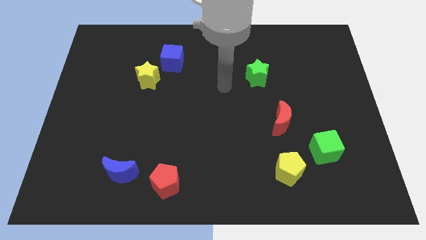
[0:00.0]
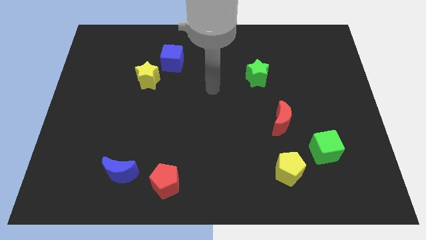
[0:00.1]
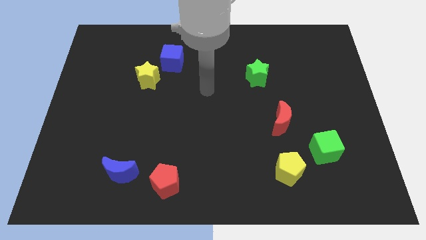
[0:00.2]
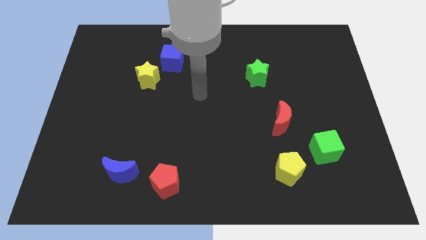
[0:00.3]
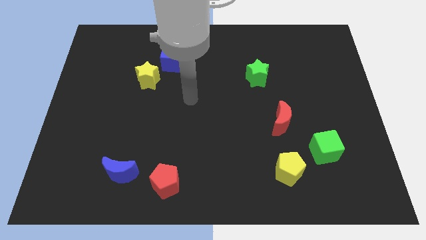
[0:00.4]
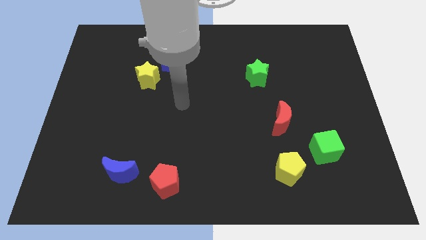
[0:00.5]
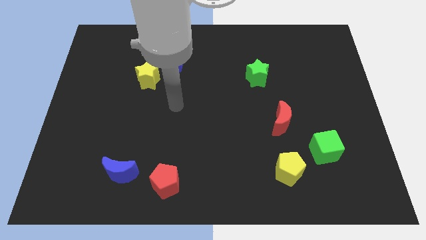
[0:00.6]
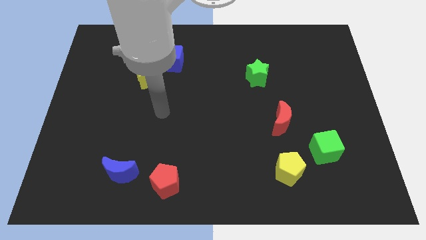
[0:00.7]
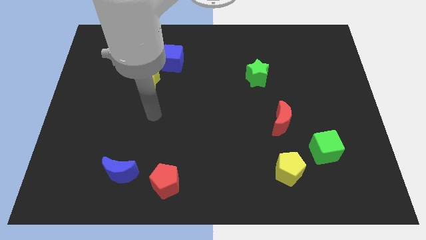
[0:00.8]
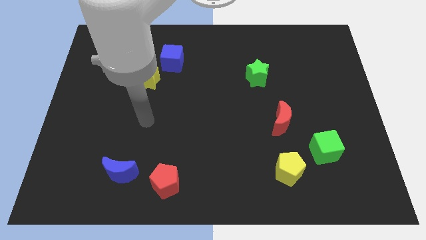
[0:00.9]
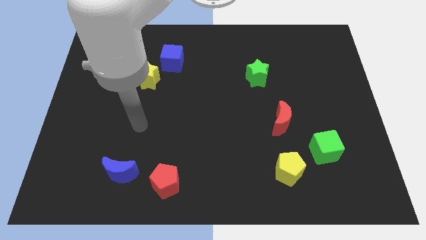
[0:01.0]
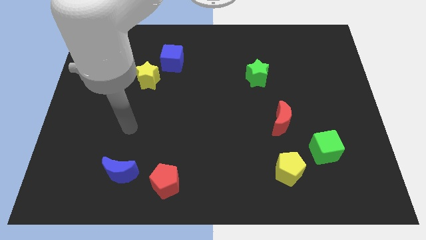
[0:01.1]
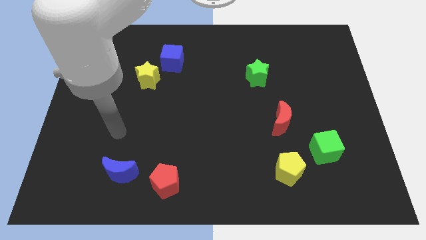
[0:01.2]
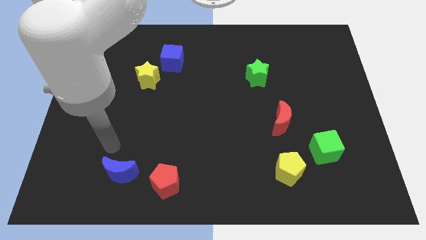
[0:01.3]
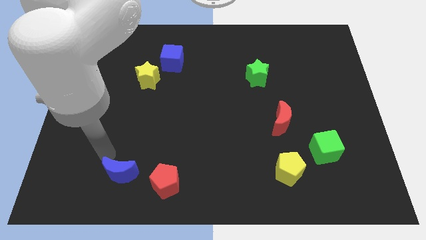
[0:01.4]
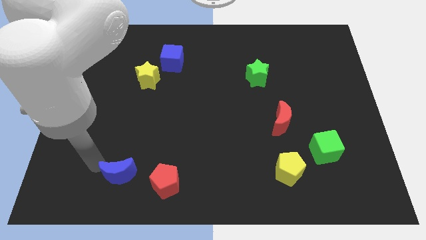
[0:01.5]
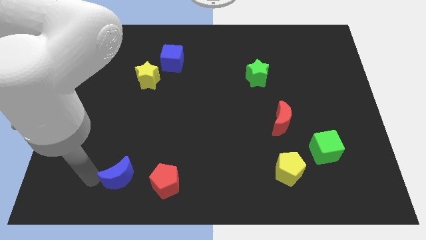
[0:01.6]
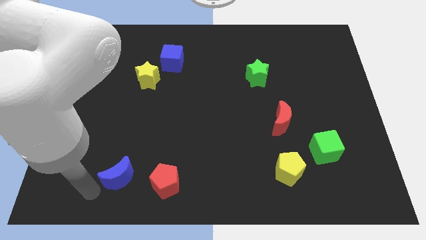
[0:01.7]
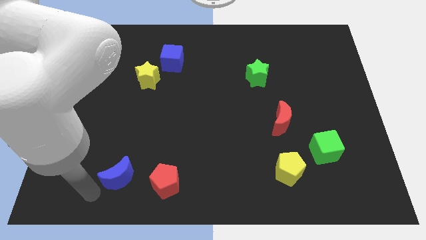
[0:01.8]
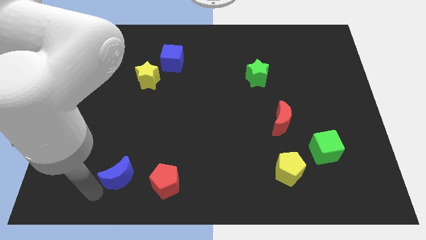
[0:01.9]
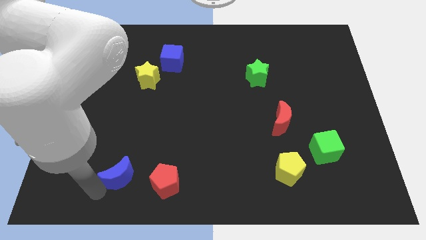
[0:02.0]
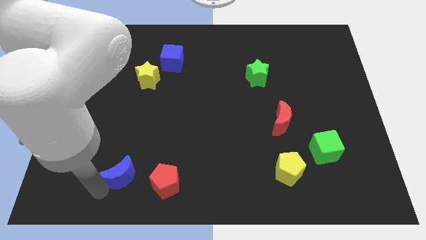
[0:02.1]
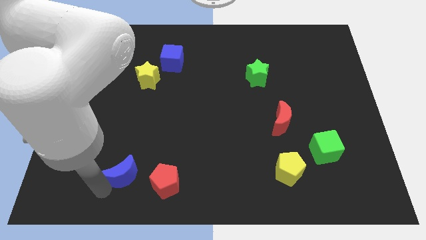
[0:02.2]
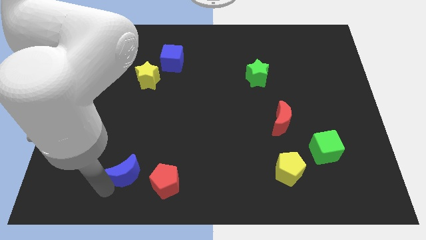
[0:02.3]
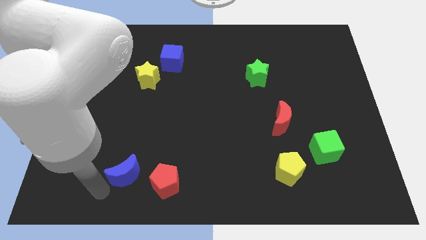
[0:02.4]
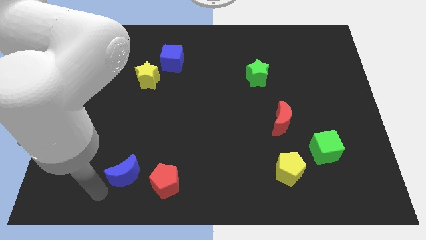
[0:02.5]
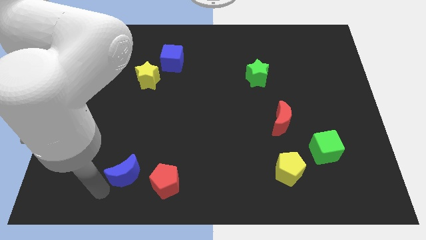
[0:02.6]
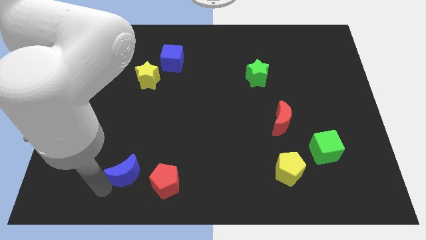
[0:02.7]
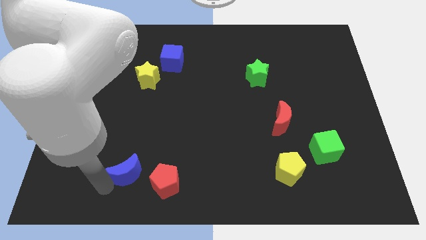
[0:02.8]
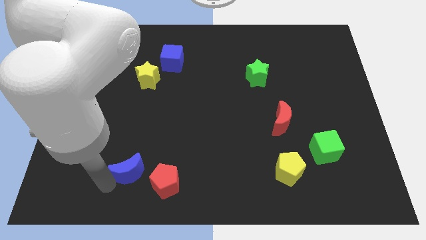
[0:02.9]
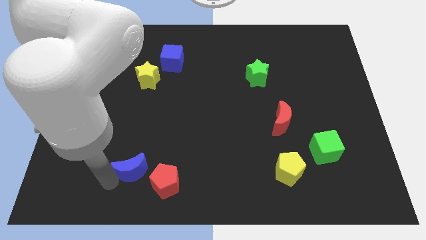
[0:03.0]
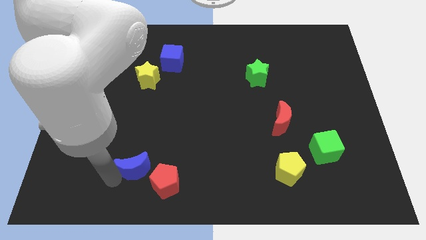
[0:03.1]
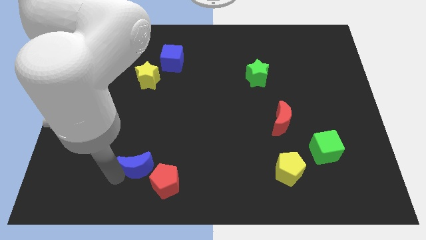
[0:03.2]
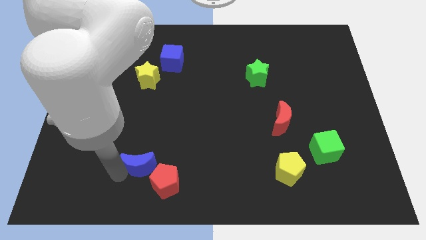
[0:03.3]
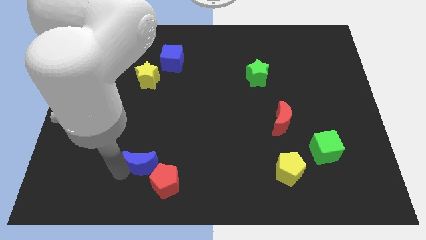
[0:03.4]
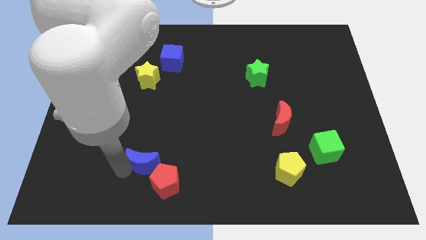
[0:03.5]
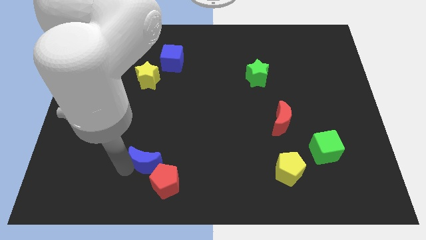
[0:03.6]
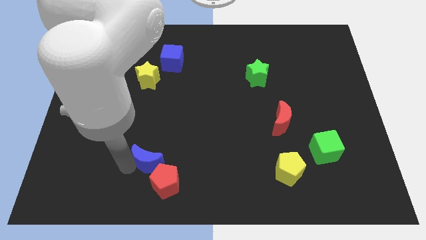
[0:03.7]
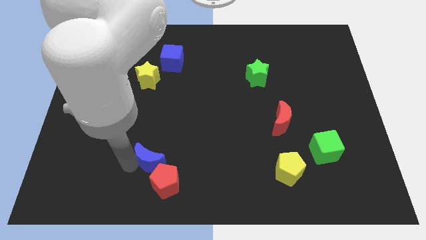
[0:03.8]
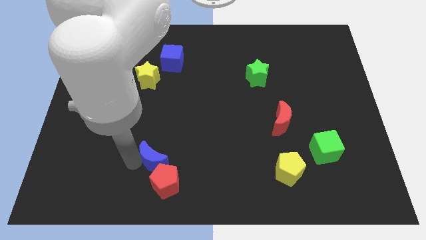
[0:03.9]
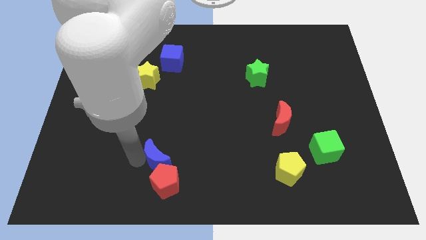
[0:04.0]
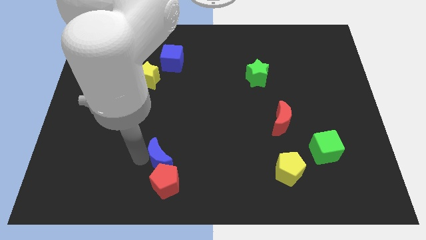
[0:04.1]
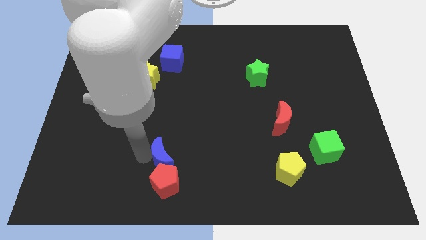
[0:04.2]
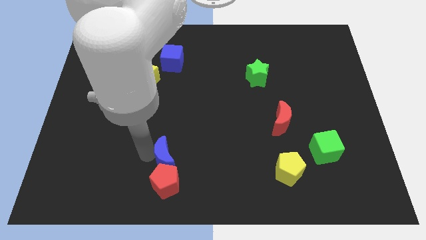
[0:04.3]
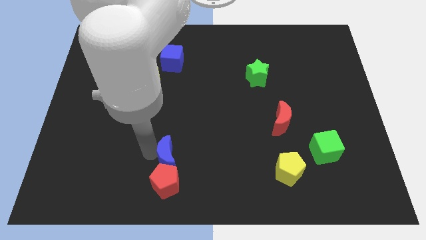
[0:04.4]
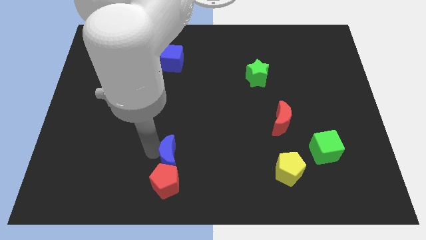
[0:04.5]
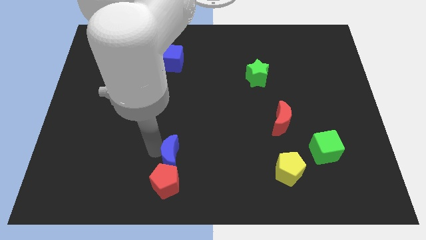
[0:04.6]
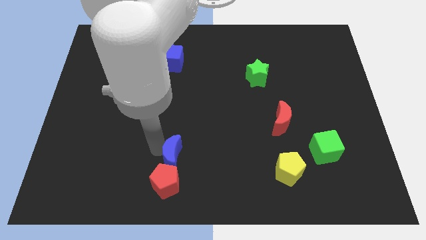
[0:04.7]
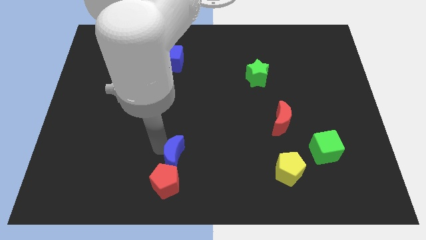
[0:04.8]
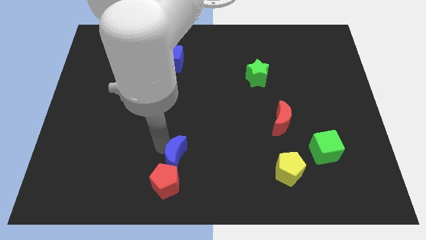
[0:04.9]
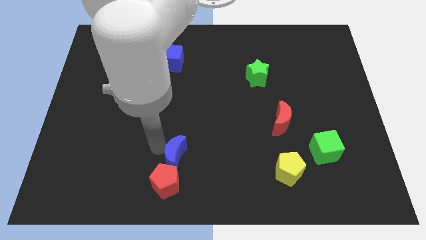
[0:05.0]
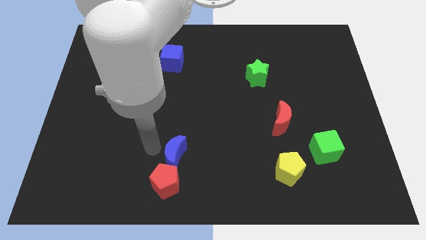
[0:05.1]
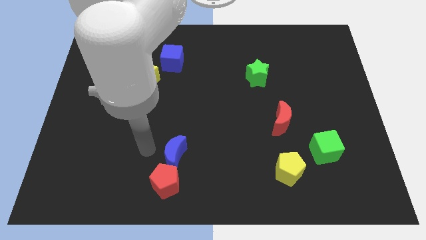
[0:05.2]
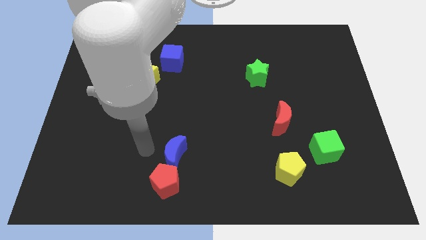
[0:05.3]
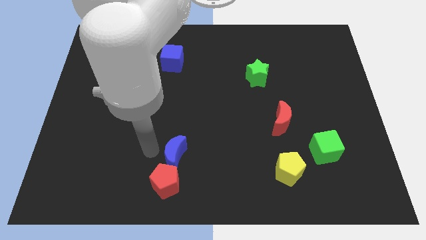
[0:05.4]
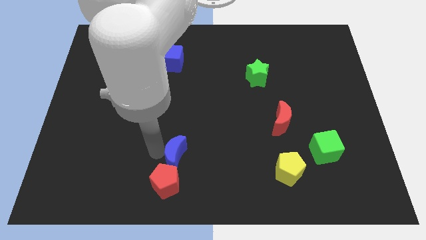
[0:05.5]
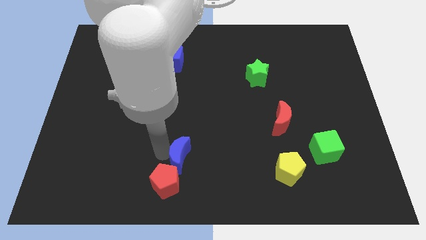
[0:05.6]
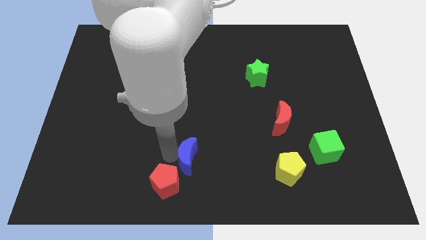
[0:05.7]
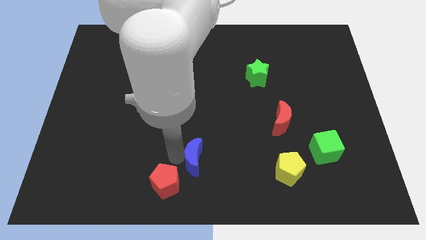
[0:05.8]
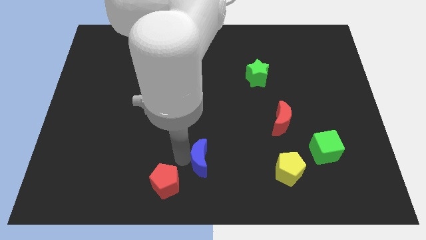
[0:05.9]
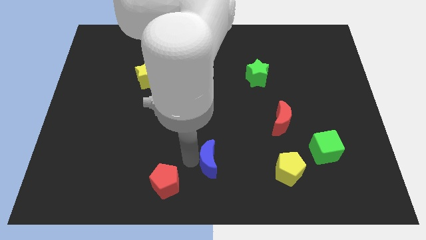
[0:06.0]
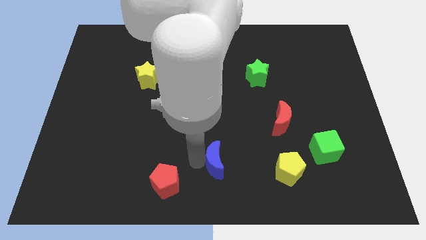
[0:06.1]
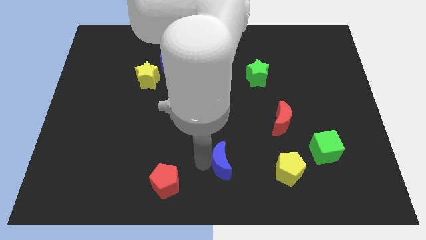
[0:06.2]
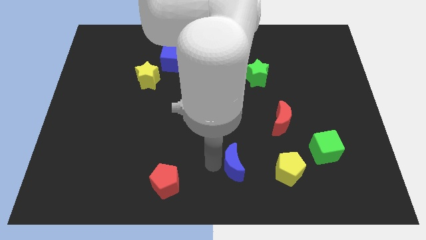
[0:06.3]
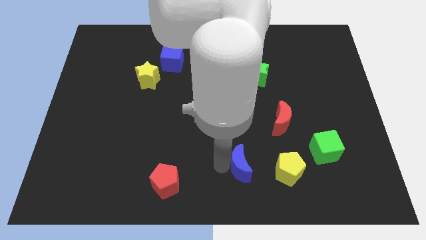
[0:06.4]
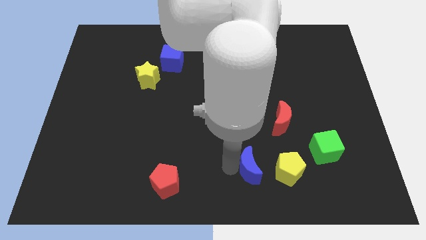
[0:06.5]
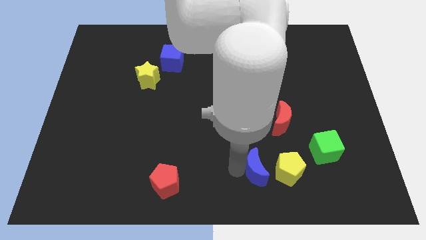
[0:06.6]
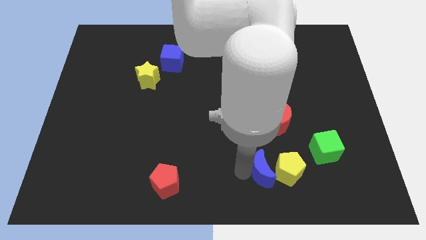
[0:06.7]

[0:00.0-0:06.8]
put the blue moon towards the yellow pentagon

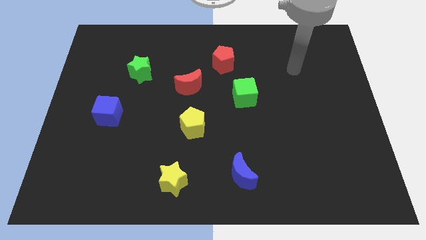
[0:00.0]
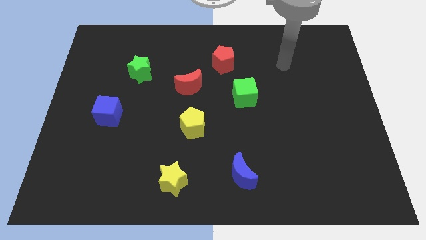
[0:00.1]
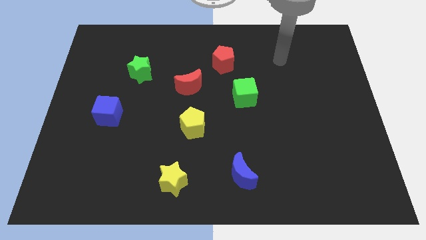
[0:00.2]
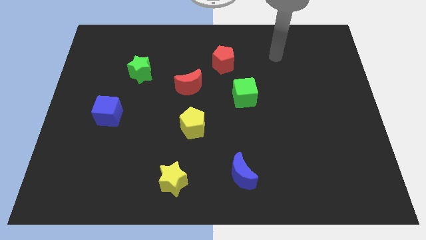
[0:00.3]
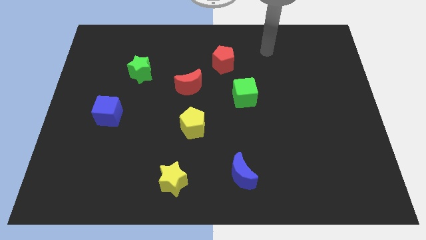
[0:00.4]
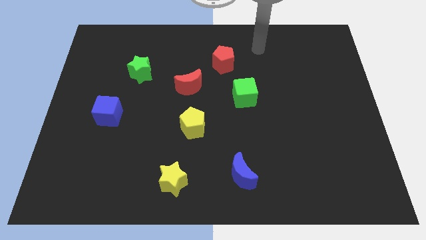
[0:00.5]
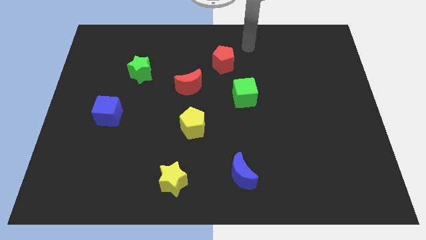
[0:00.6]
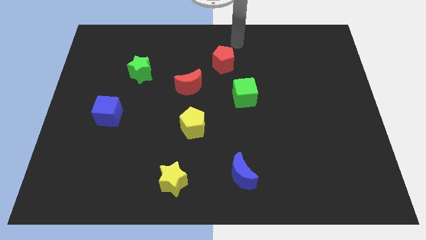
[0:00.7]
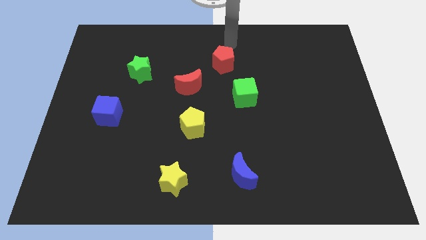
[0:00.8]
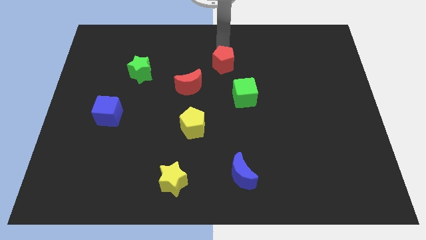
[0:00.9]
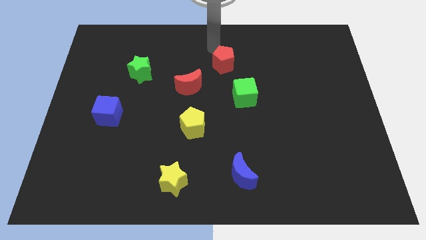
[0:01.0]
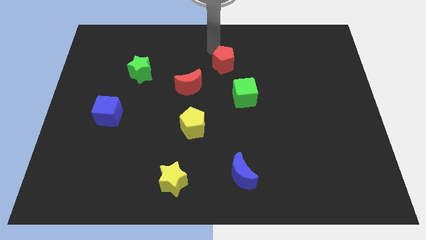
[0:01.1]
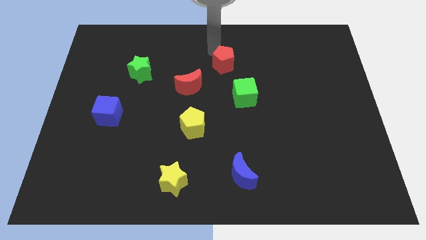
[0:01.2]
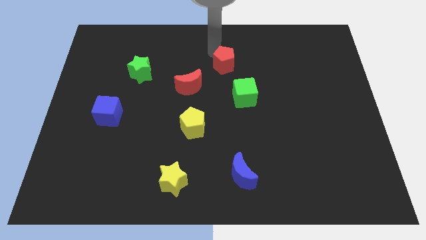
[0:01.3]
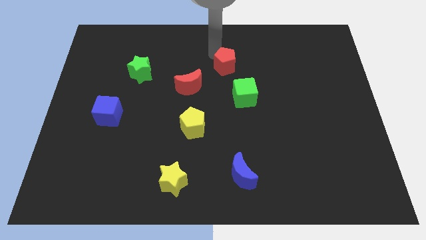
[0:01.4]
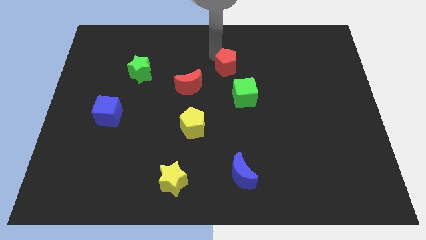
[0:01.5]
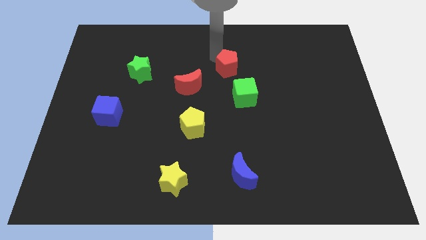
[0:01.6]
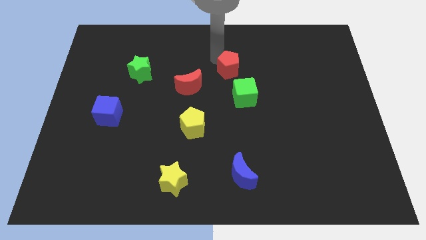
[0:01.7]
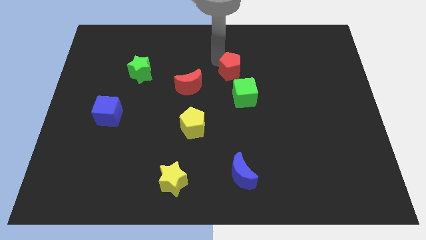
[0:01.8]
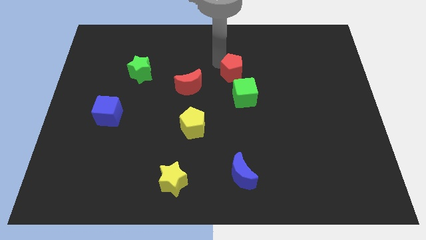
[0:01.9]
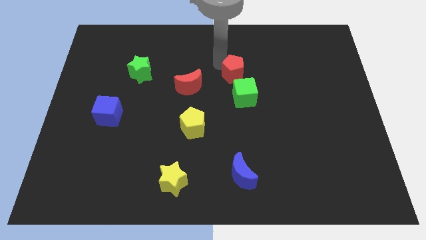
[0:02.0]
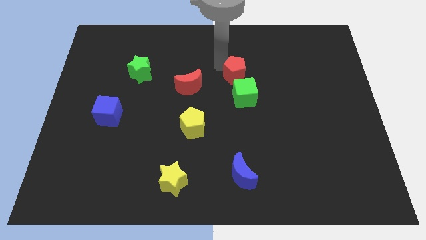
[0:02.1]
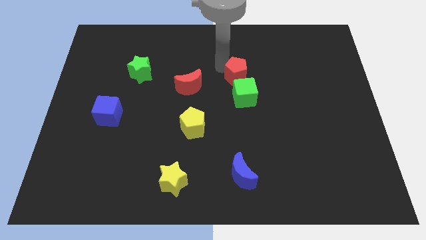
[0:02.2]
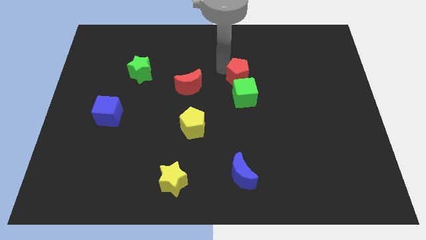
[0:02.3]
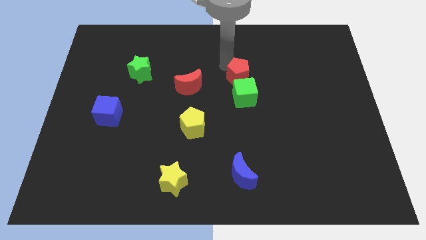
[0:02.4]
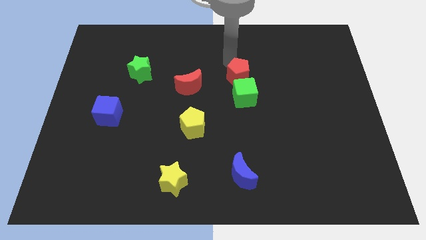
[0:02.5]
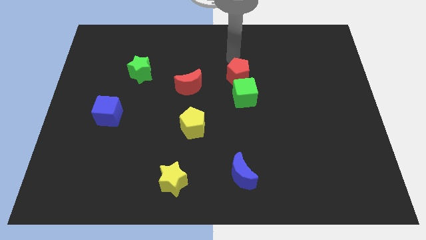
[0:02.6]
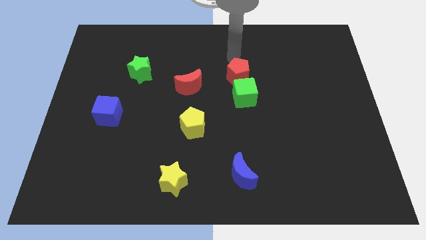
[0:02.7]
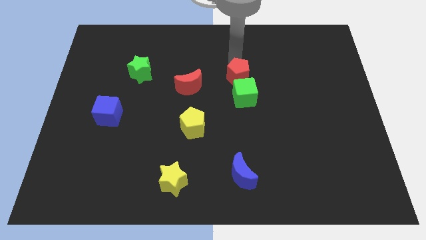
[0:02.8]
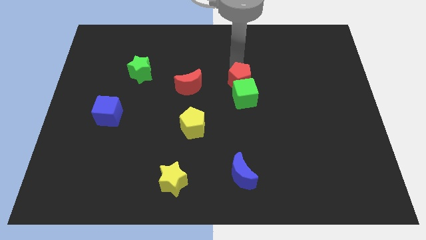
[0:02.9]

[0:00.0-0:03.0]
push the red pentagon next to the green cube
